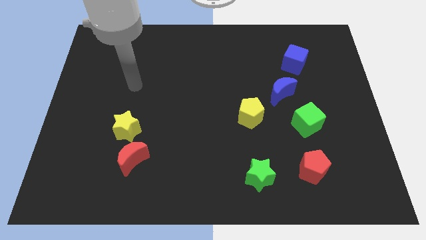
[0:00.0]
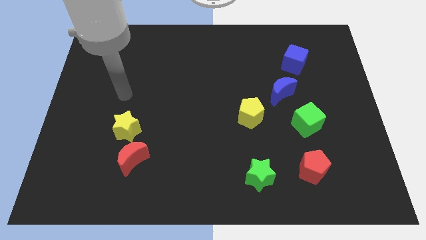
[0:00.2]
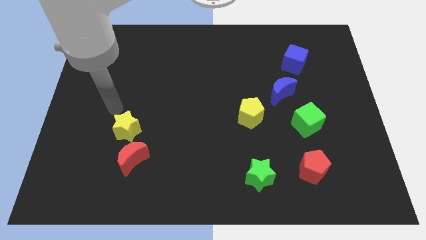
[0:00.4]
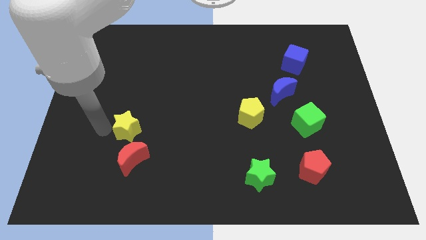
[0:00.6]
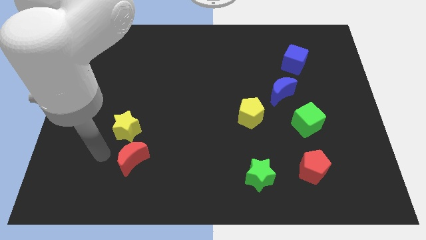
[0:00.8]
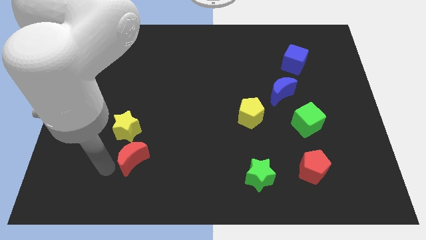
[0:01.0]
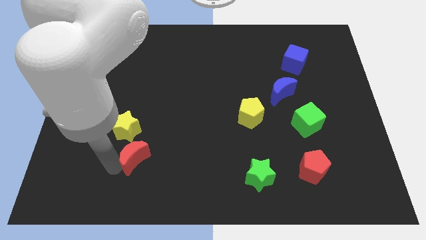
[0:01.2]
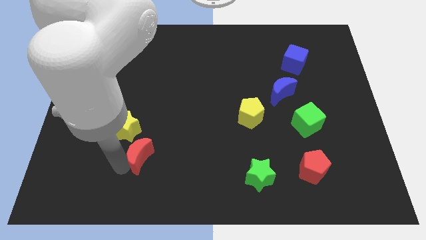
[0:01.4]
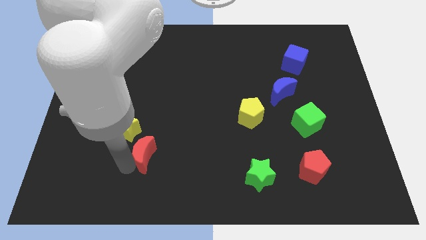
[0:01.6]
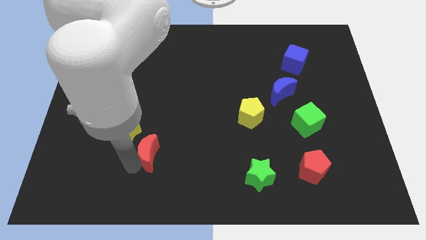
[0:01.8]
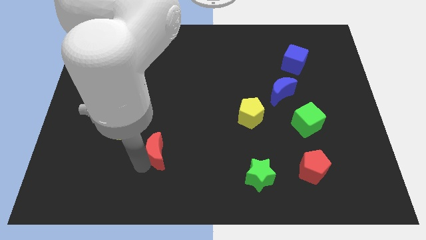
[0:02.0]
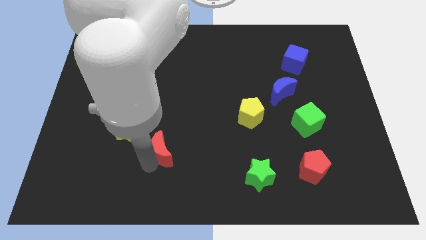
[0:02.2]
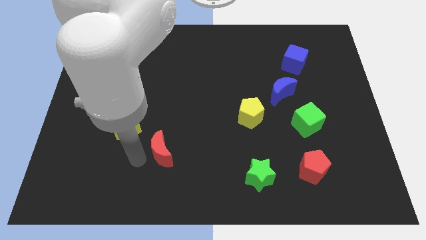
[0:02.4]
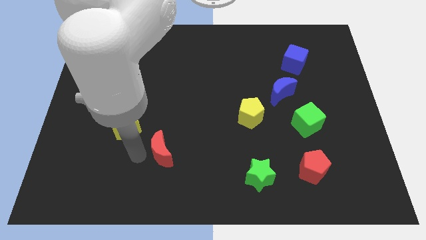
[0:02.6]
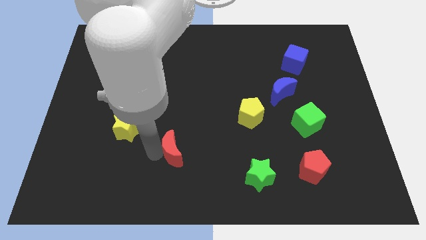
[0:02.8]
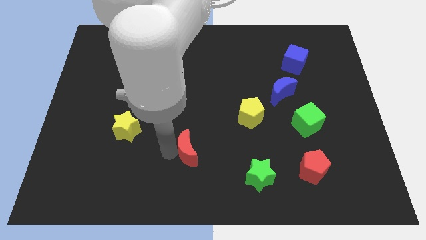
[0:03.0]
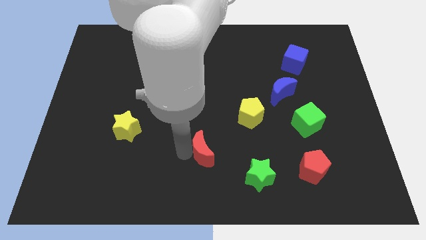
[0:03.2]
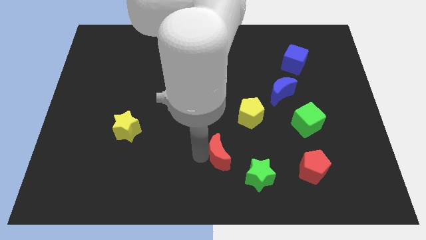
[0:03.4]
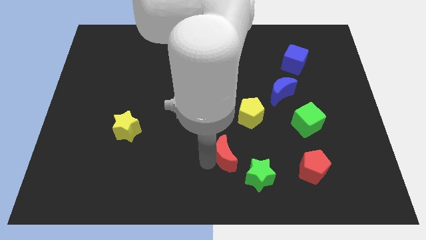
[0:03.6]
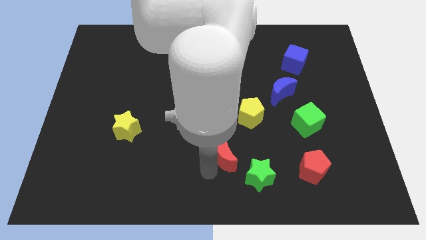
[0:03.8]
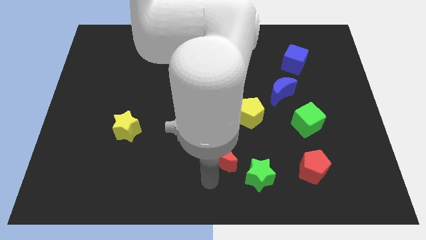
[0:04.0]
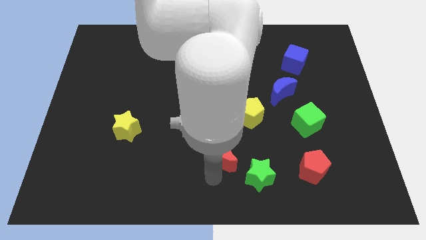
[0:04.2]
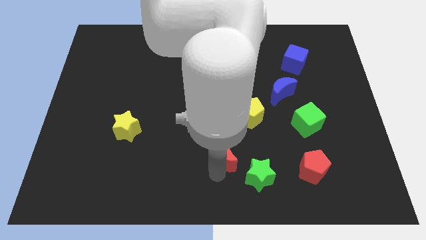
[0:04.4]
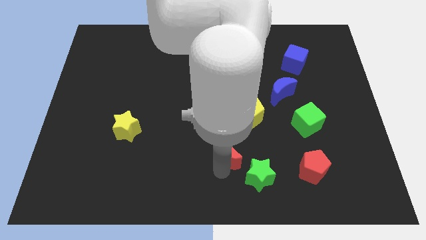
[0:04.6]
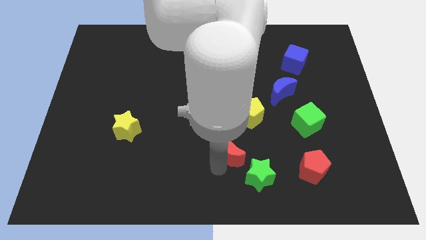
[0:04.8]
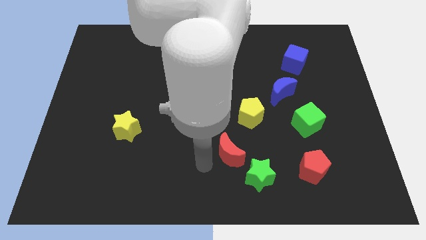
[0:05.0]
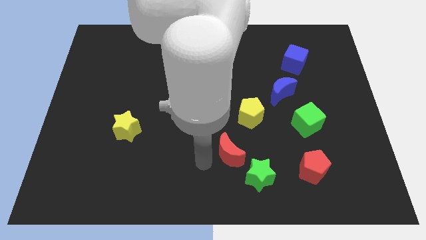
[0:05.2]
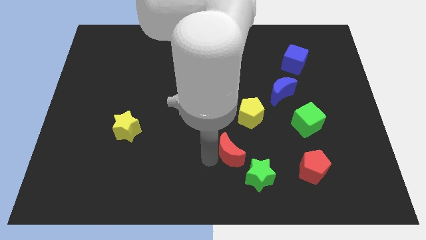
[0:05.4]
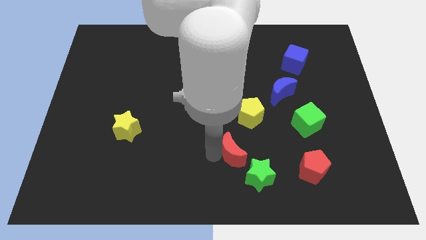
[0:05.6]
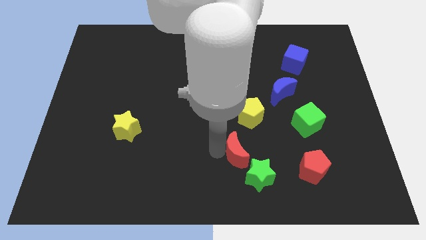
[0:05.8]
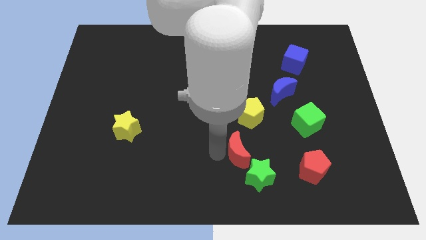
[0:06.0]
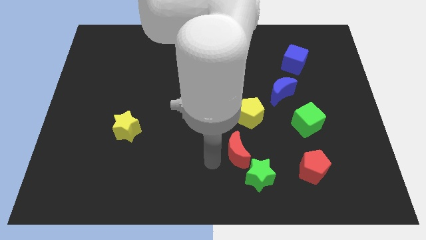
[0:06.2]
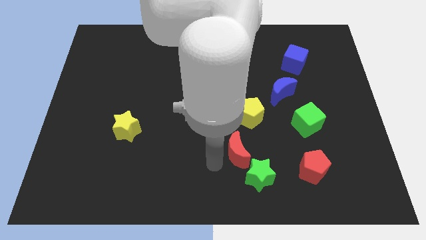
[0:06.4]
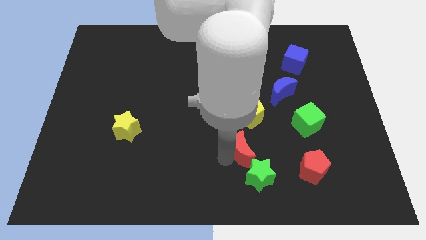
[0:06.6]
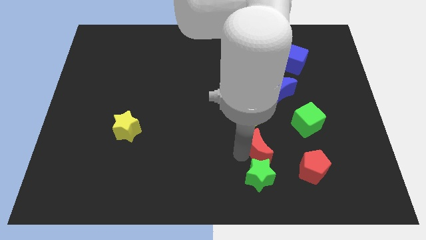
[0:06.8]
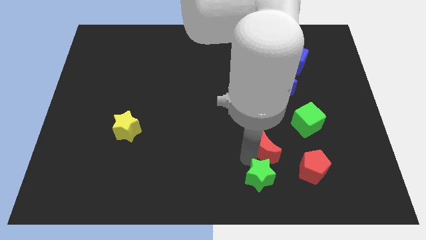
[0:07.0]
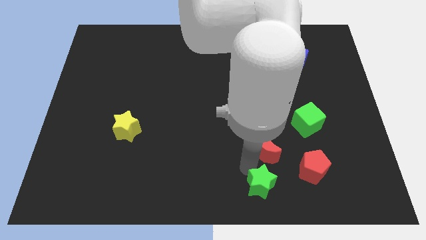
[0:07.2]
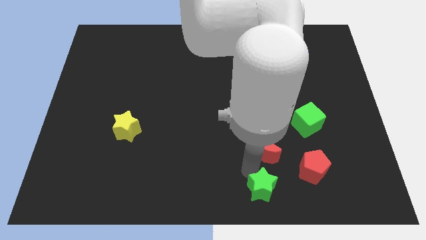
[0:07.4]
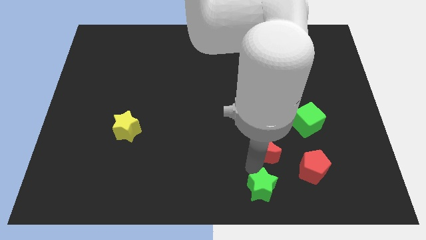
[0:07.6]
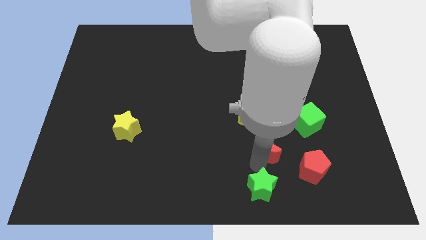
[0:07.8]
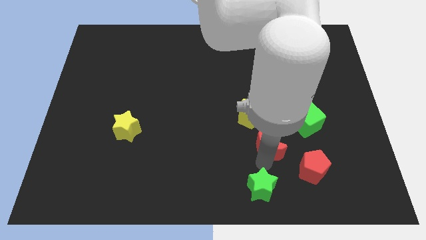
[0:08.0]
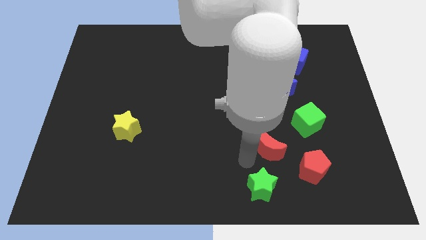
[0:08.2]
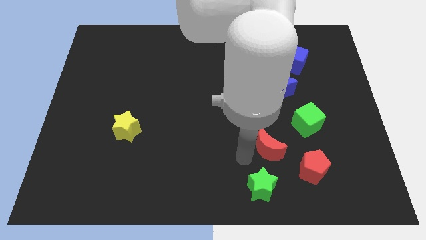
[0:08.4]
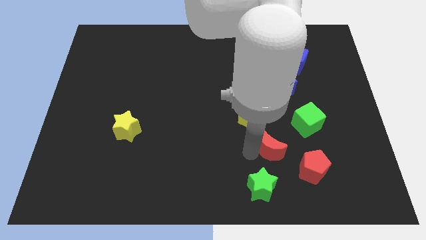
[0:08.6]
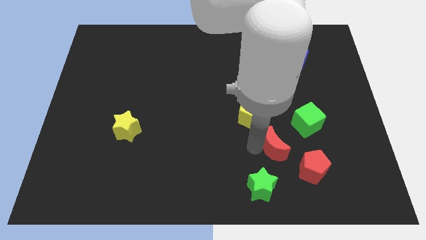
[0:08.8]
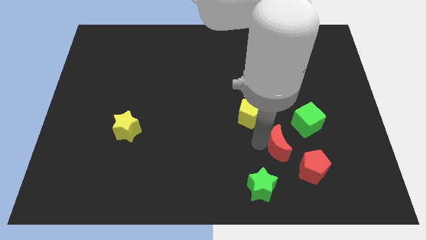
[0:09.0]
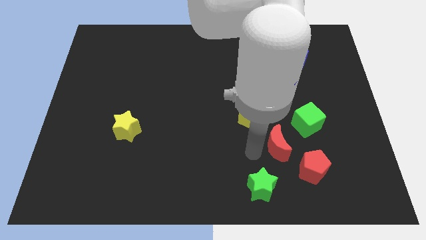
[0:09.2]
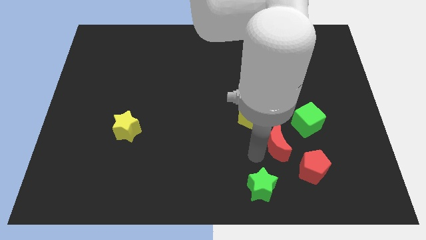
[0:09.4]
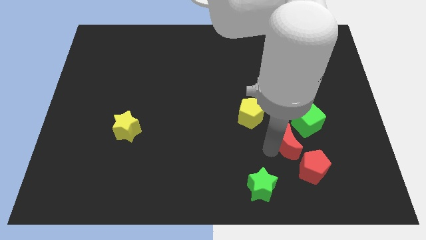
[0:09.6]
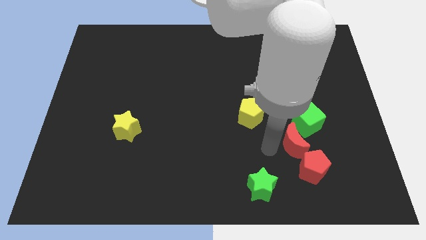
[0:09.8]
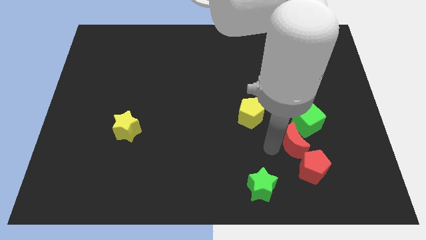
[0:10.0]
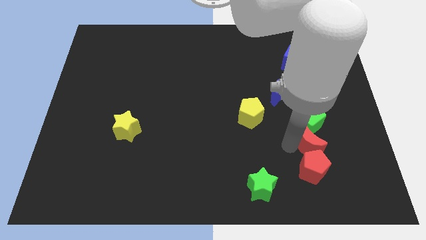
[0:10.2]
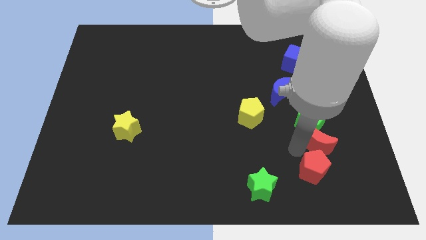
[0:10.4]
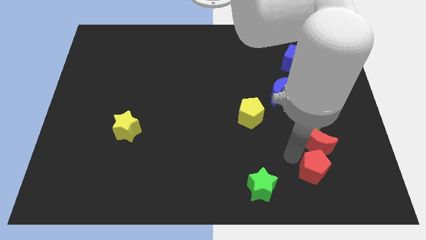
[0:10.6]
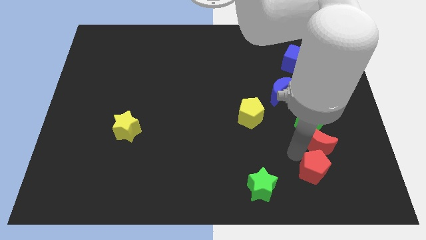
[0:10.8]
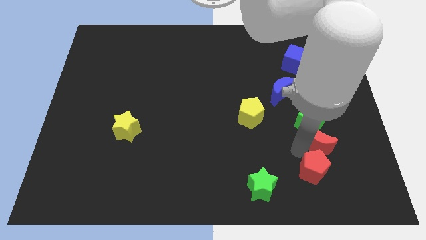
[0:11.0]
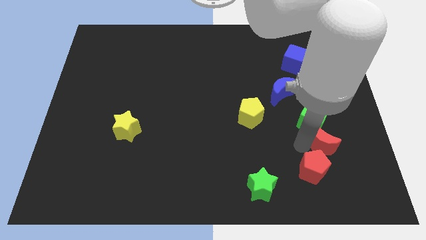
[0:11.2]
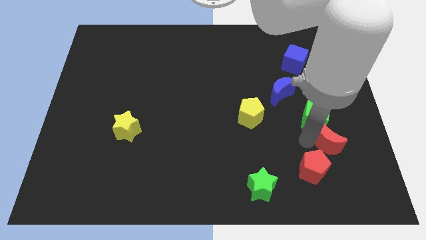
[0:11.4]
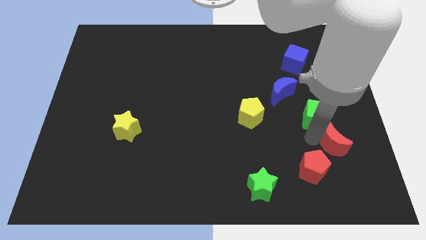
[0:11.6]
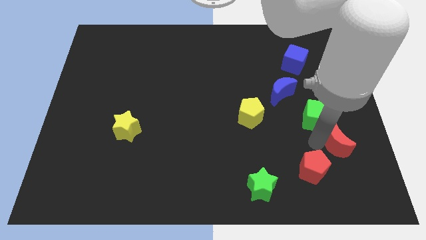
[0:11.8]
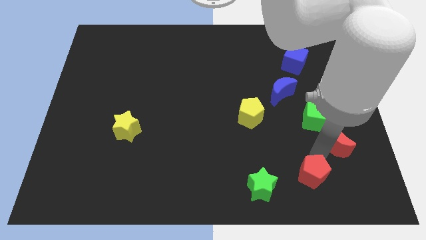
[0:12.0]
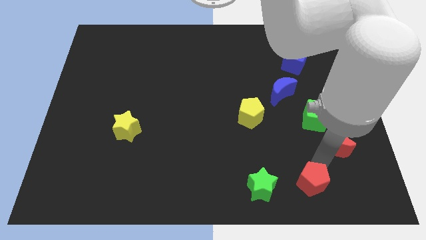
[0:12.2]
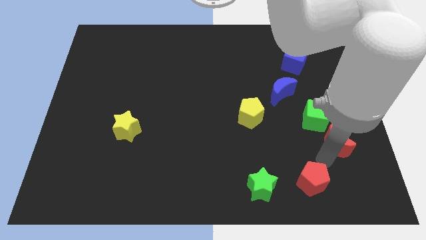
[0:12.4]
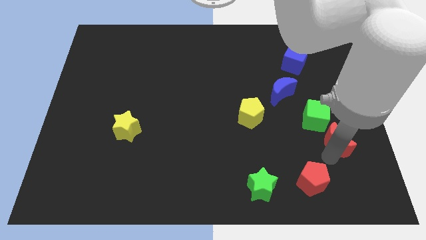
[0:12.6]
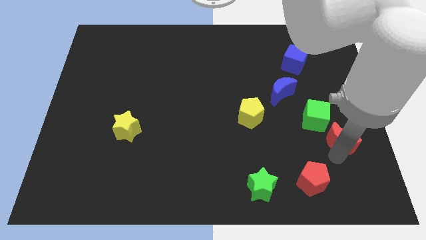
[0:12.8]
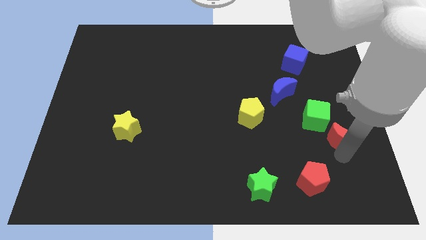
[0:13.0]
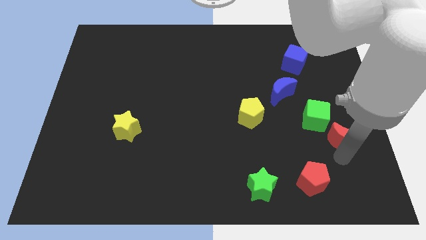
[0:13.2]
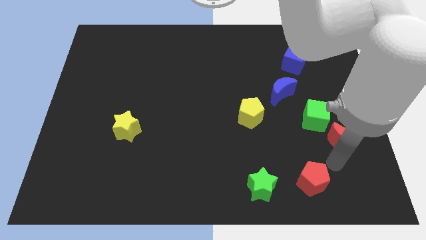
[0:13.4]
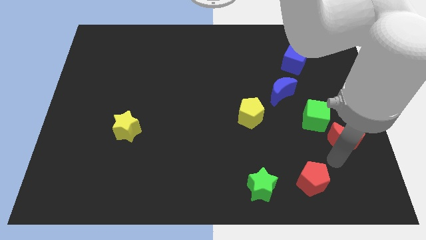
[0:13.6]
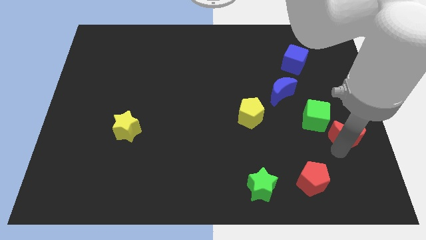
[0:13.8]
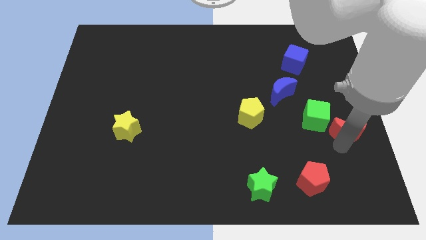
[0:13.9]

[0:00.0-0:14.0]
move the red moon to the right side of the board
